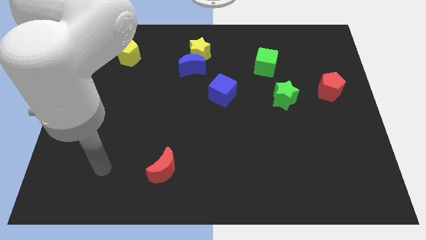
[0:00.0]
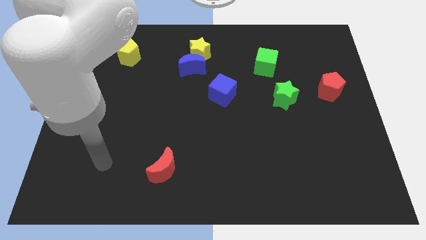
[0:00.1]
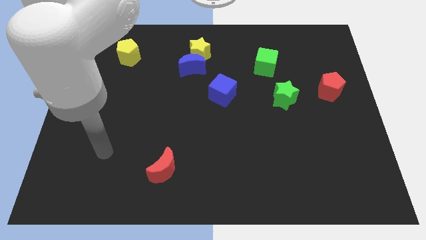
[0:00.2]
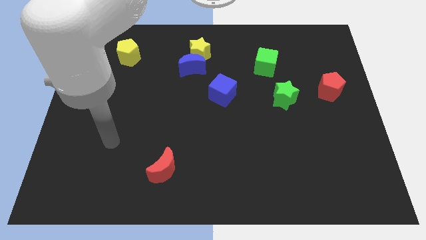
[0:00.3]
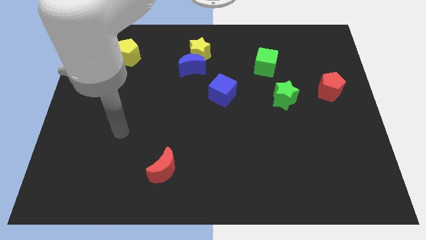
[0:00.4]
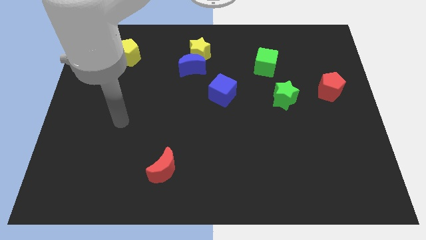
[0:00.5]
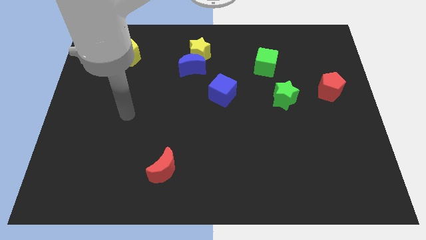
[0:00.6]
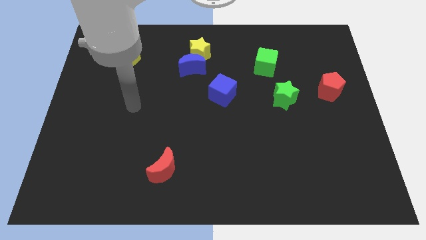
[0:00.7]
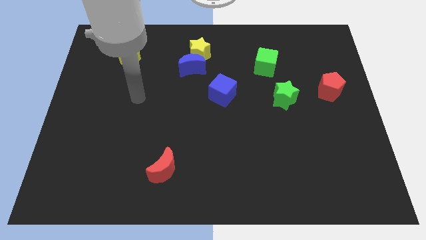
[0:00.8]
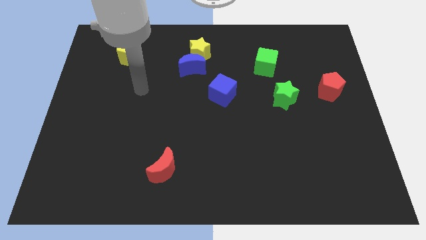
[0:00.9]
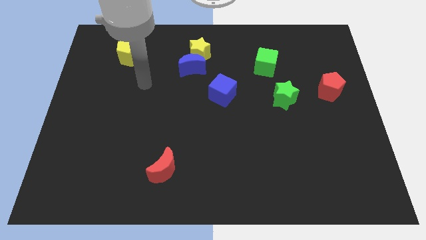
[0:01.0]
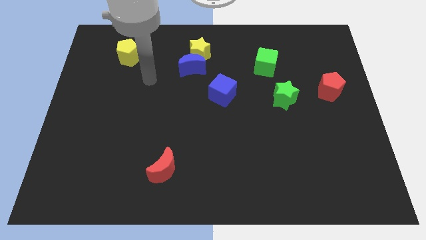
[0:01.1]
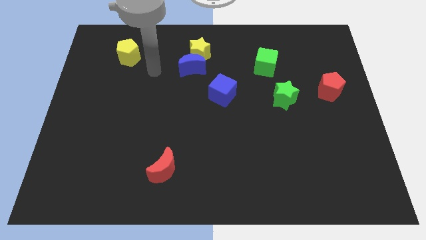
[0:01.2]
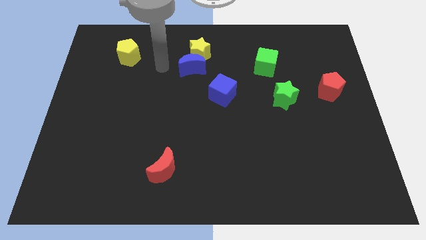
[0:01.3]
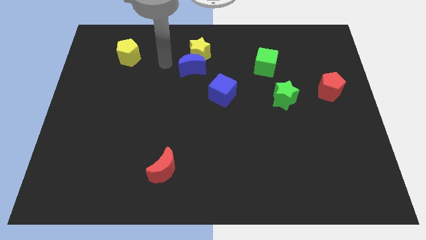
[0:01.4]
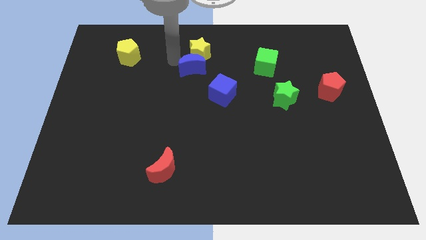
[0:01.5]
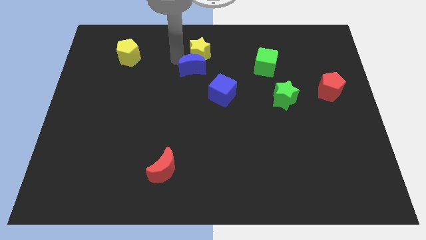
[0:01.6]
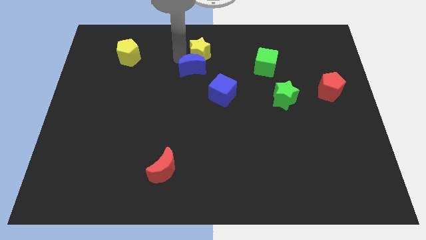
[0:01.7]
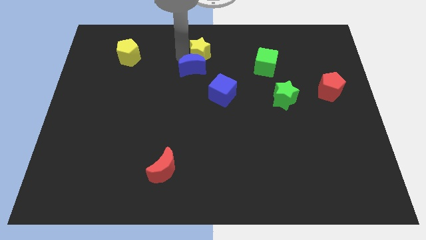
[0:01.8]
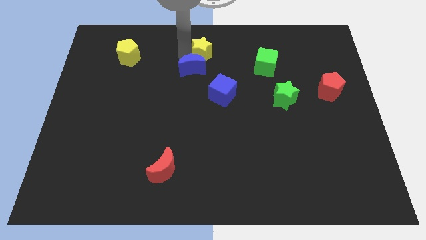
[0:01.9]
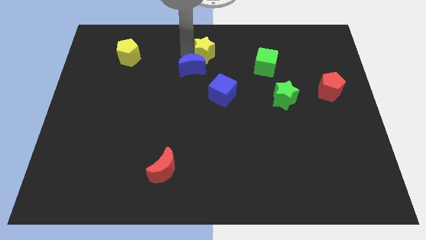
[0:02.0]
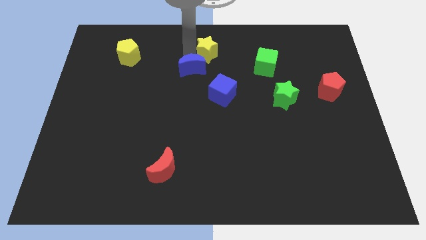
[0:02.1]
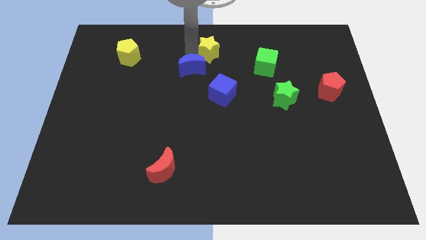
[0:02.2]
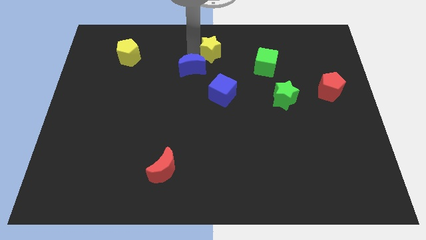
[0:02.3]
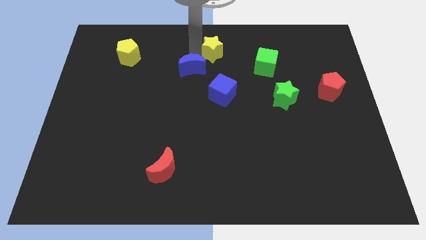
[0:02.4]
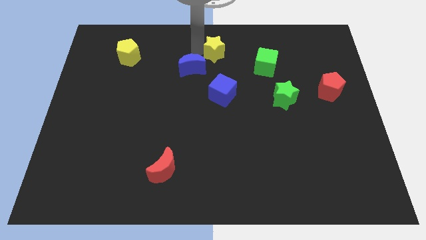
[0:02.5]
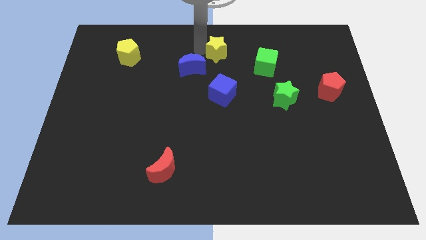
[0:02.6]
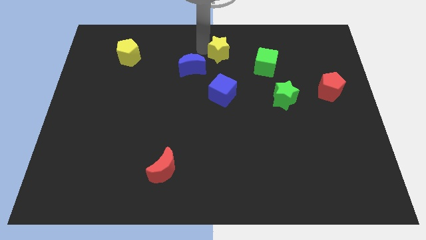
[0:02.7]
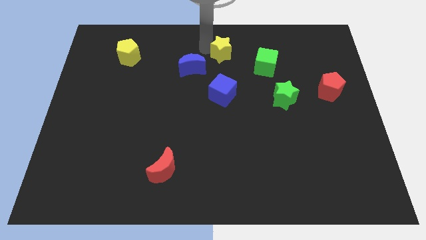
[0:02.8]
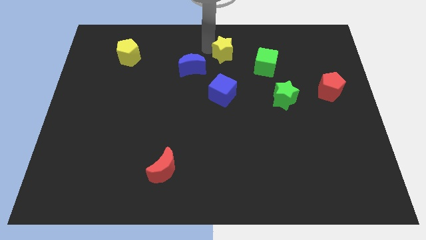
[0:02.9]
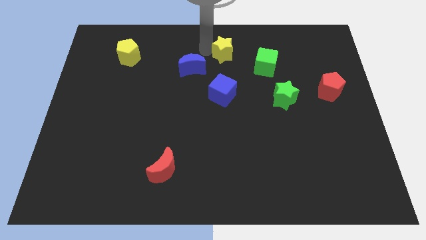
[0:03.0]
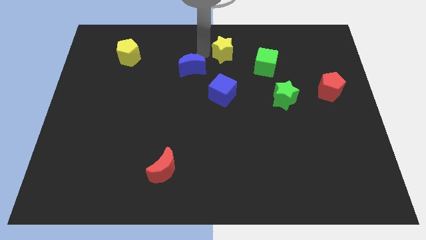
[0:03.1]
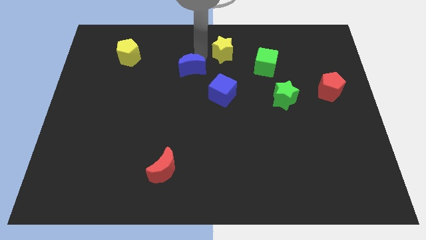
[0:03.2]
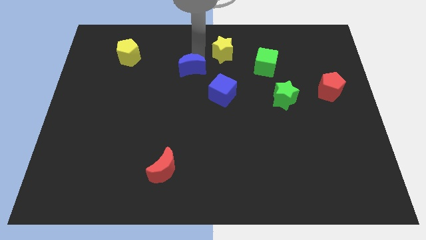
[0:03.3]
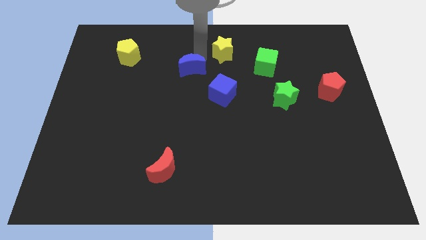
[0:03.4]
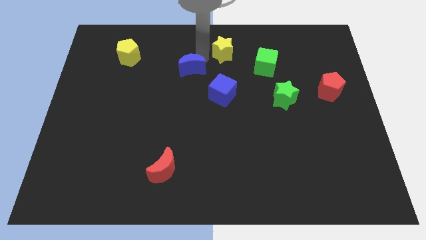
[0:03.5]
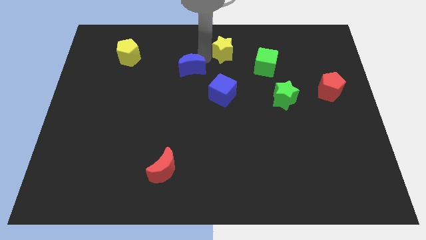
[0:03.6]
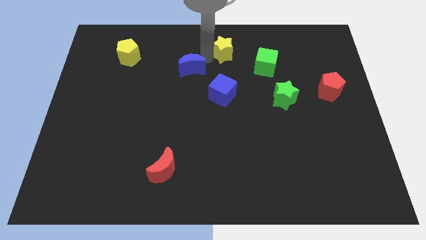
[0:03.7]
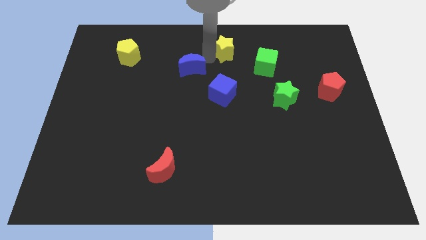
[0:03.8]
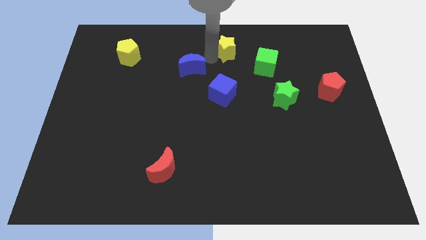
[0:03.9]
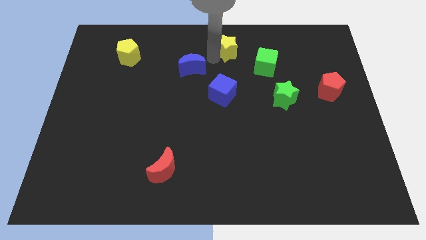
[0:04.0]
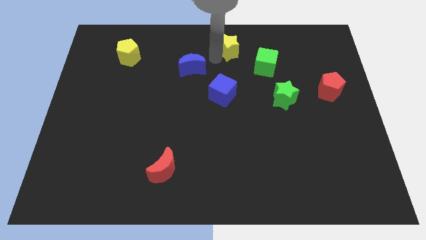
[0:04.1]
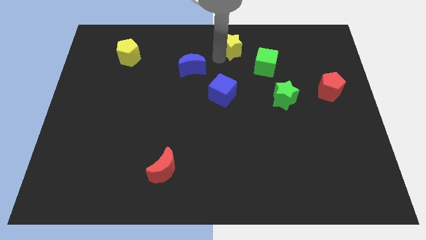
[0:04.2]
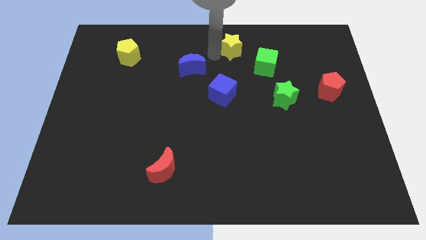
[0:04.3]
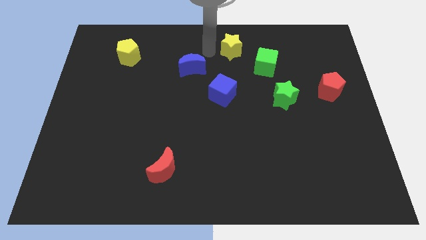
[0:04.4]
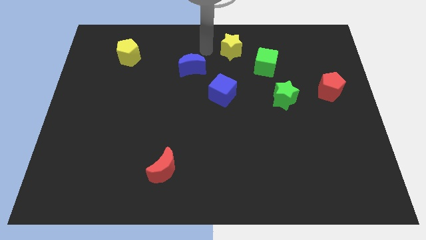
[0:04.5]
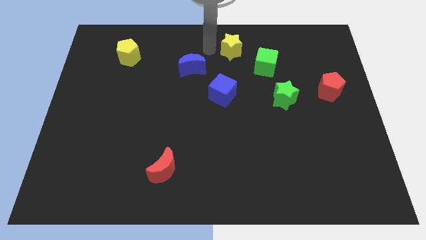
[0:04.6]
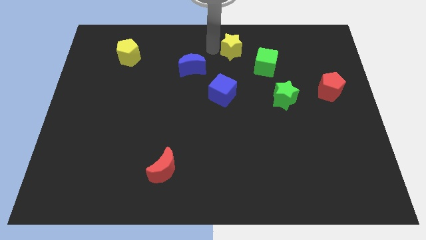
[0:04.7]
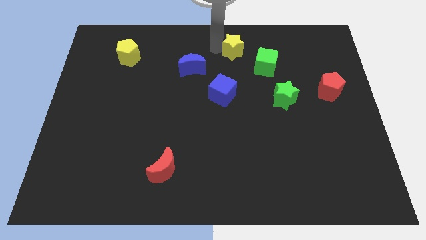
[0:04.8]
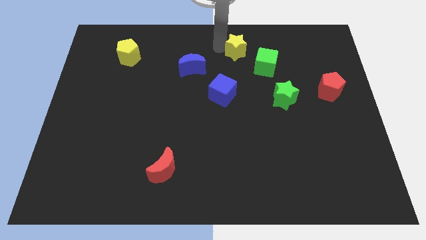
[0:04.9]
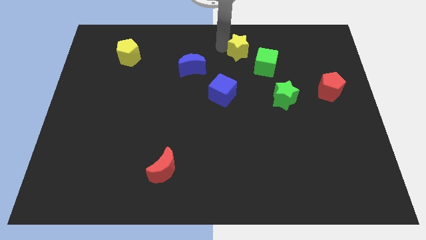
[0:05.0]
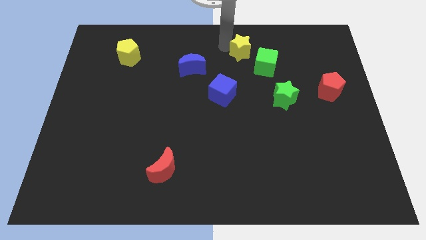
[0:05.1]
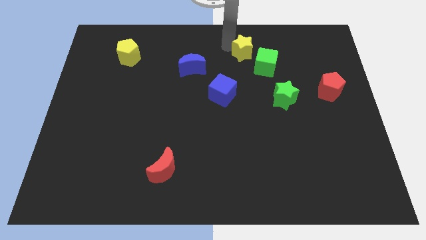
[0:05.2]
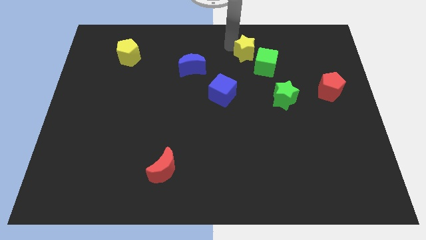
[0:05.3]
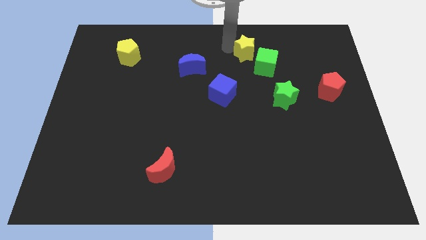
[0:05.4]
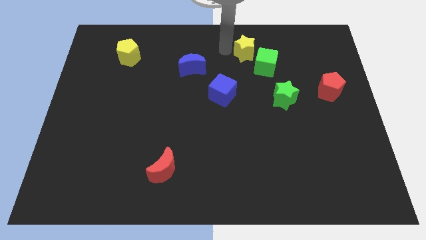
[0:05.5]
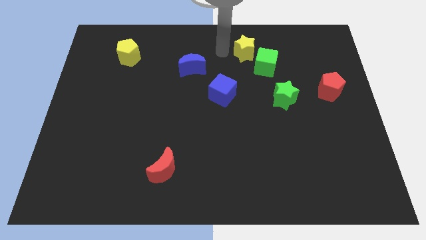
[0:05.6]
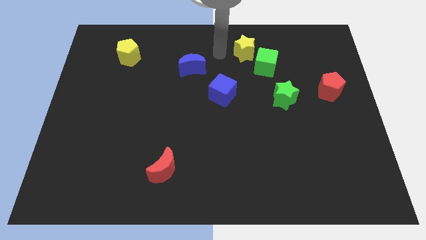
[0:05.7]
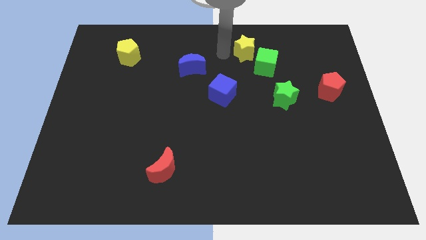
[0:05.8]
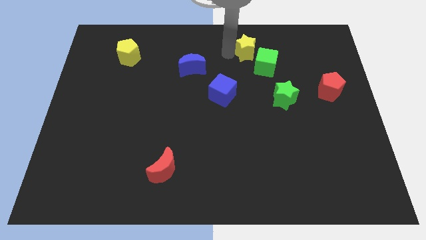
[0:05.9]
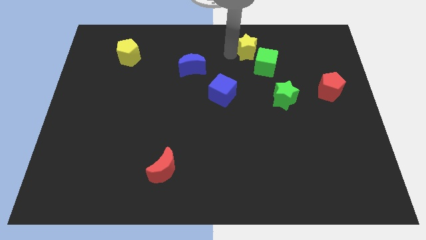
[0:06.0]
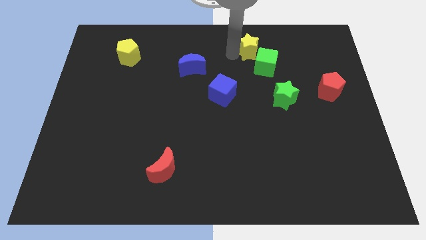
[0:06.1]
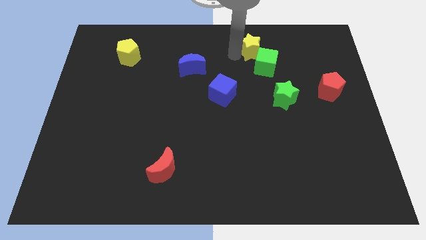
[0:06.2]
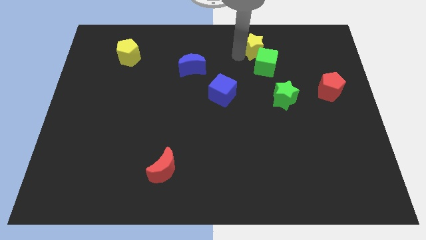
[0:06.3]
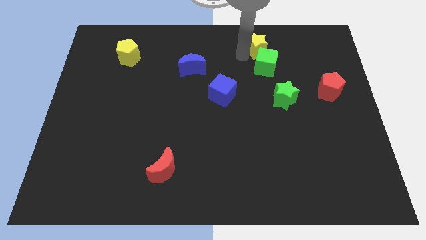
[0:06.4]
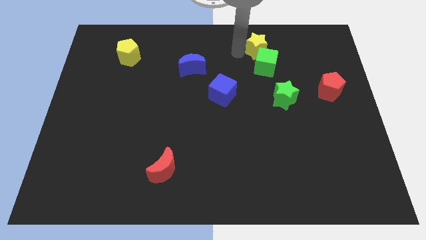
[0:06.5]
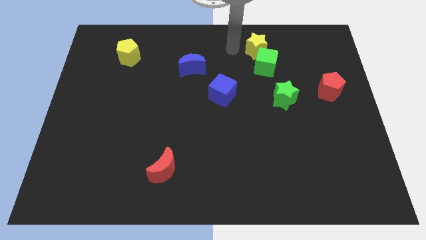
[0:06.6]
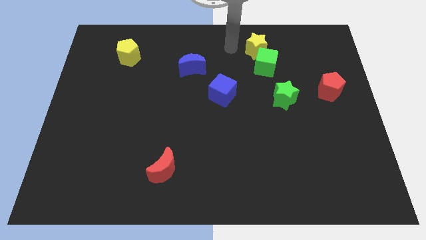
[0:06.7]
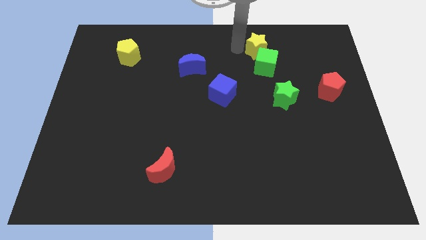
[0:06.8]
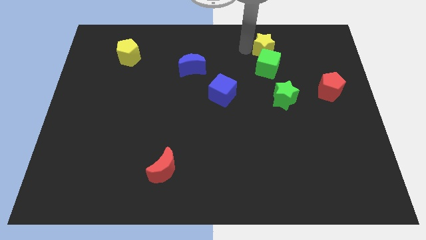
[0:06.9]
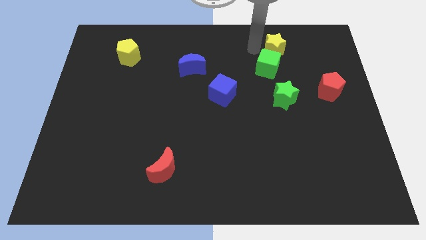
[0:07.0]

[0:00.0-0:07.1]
push the yellow star right

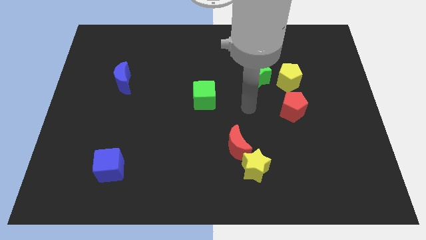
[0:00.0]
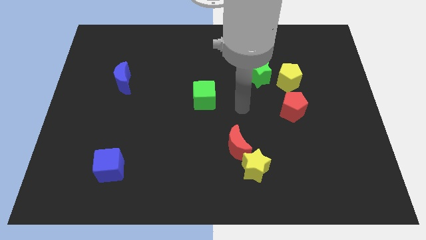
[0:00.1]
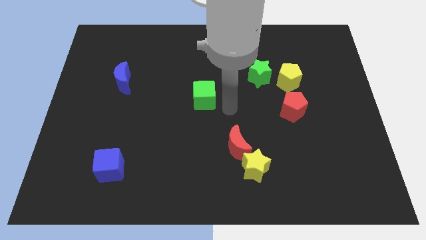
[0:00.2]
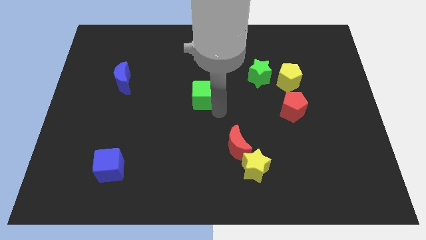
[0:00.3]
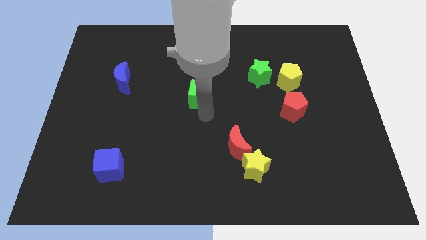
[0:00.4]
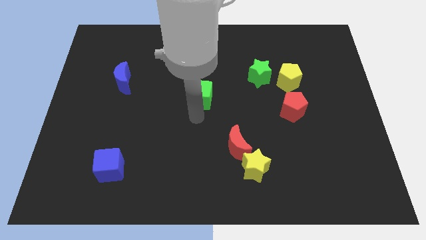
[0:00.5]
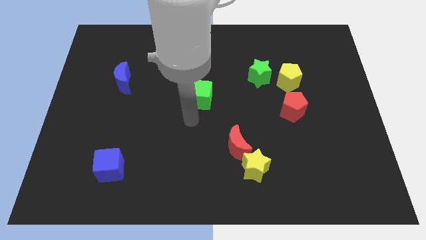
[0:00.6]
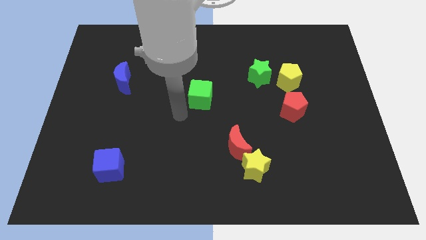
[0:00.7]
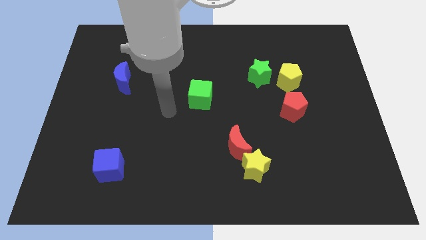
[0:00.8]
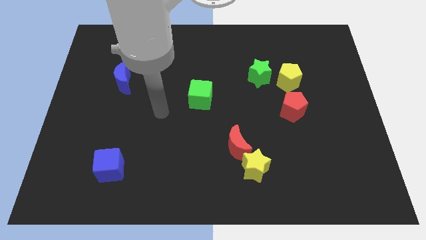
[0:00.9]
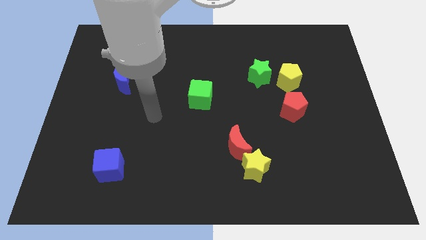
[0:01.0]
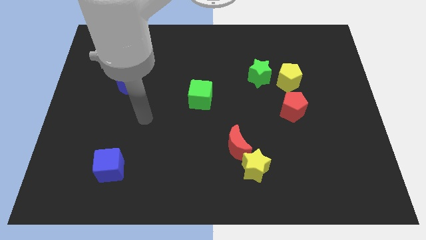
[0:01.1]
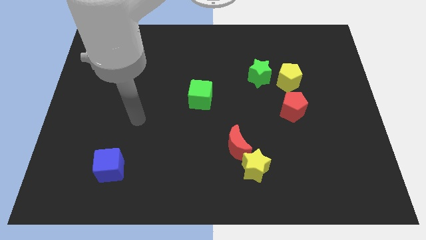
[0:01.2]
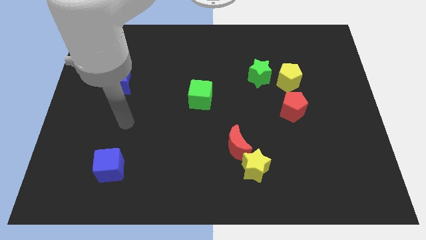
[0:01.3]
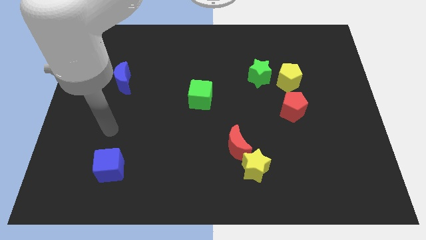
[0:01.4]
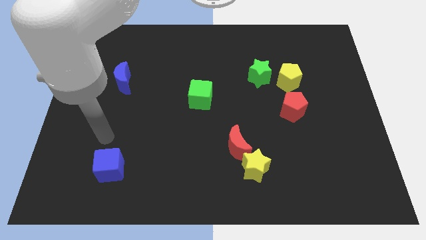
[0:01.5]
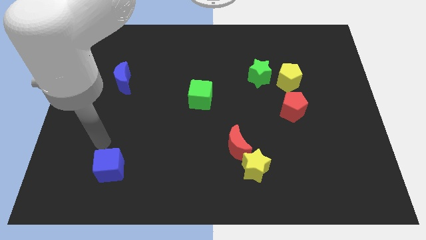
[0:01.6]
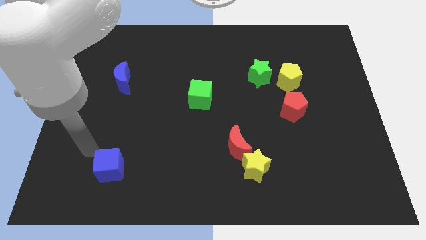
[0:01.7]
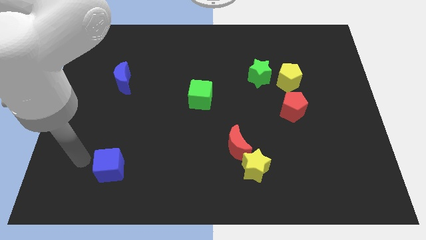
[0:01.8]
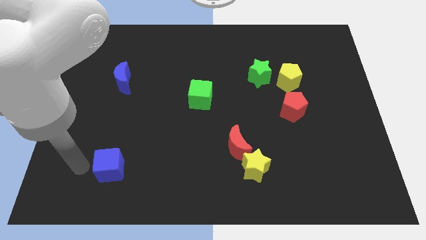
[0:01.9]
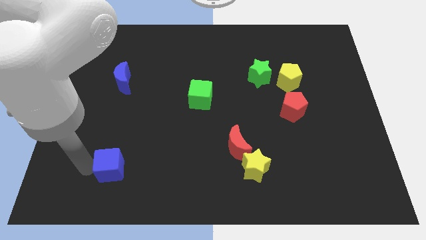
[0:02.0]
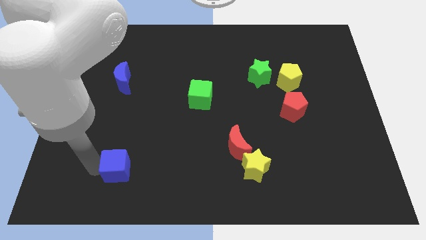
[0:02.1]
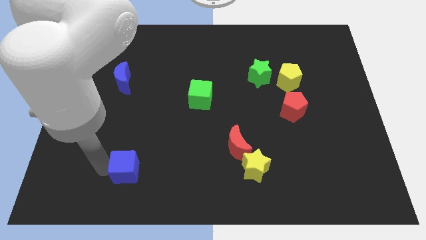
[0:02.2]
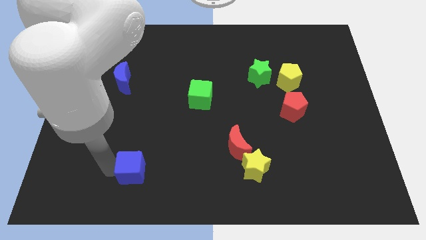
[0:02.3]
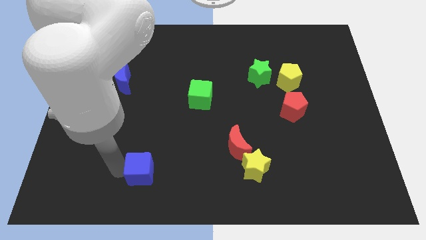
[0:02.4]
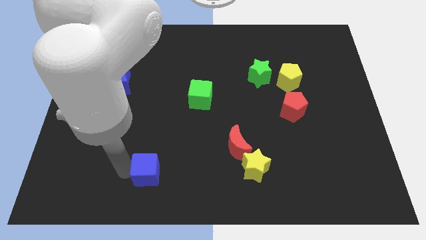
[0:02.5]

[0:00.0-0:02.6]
move the blue cube to the right slightly
